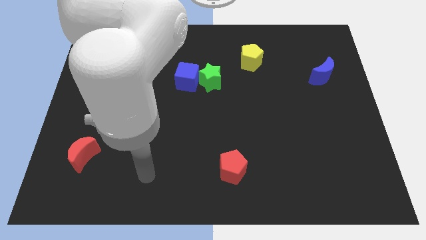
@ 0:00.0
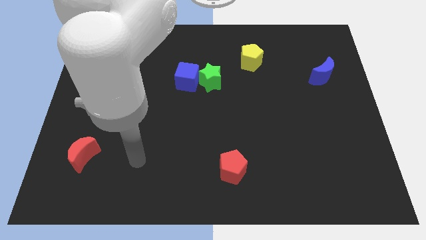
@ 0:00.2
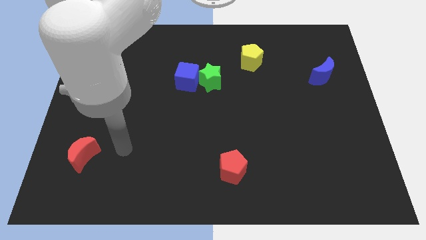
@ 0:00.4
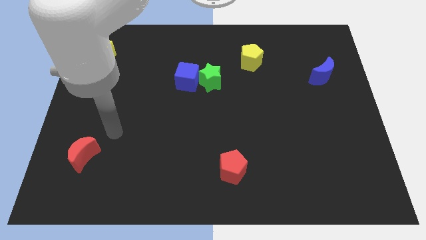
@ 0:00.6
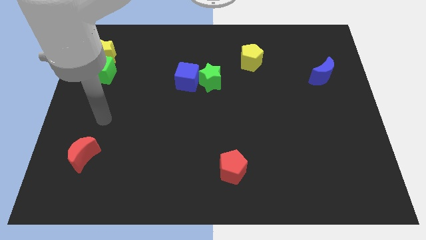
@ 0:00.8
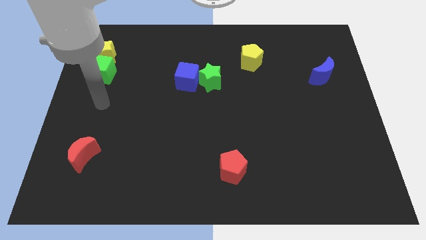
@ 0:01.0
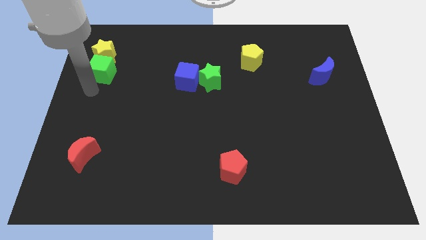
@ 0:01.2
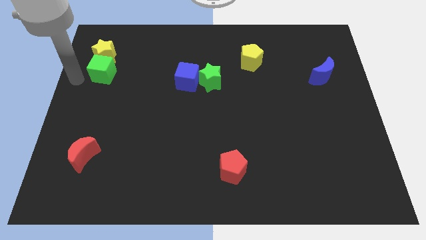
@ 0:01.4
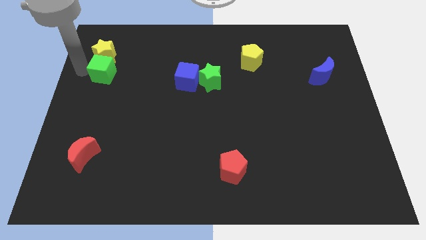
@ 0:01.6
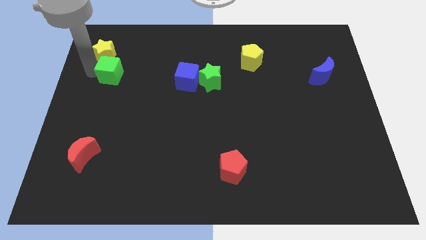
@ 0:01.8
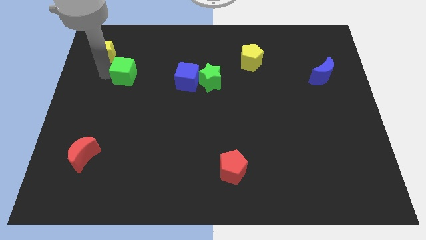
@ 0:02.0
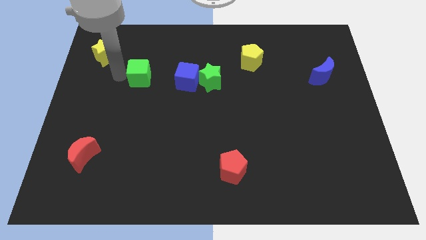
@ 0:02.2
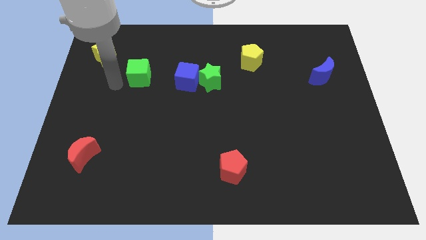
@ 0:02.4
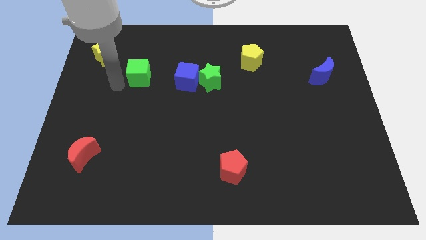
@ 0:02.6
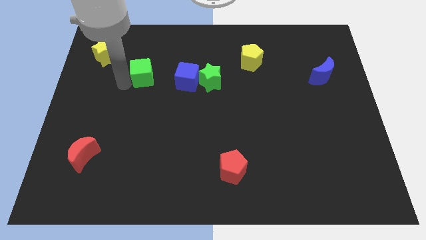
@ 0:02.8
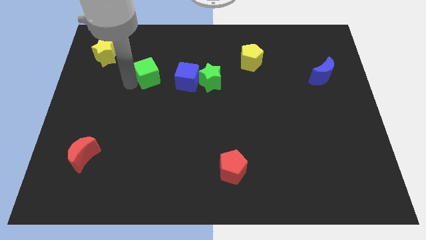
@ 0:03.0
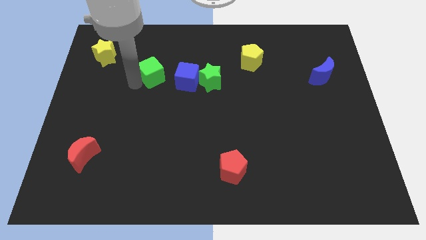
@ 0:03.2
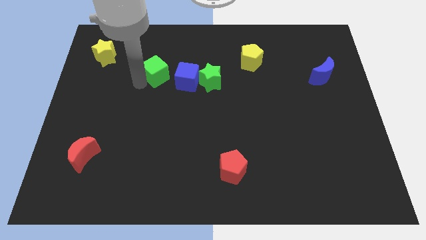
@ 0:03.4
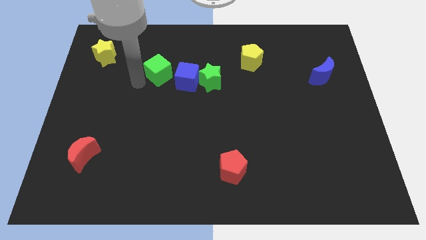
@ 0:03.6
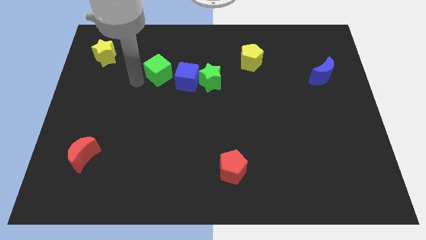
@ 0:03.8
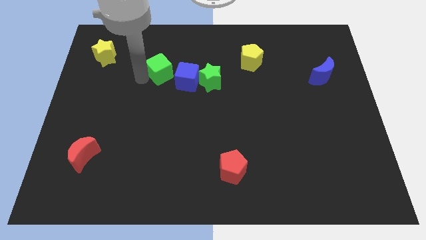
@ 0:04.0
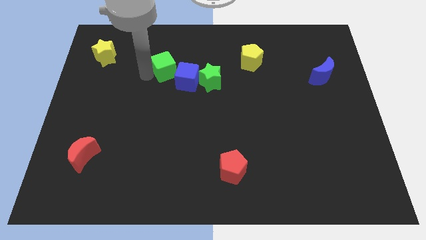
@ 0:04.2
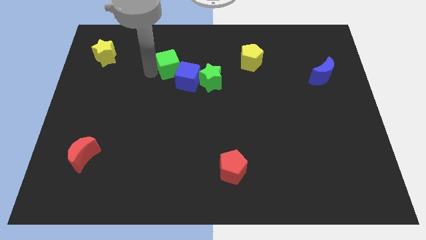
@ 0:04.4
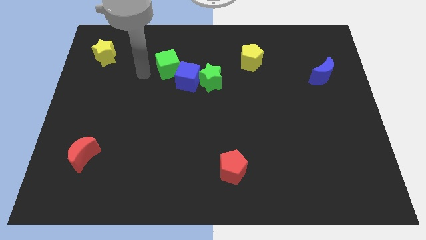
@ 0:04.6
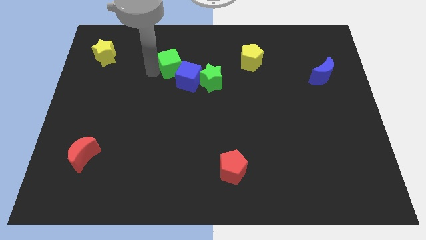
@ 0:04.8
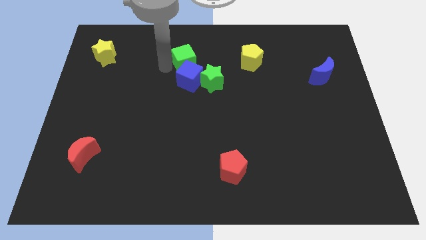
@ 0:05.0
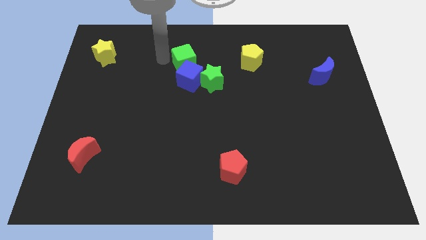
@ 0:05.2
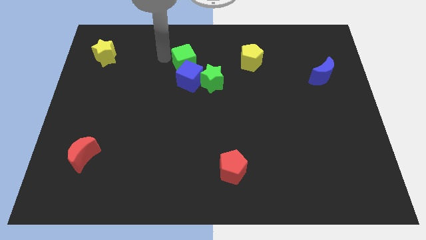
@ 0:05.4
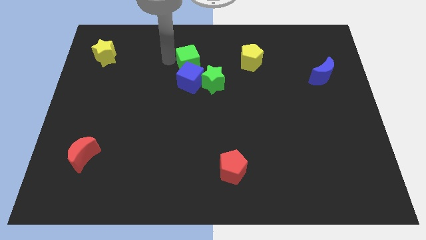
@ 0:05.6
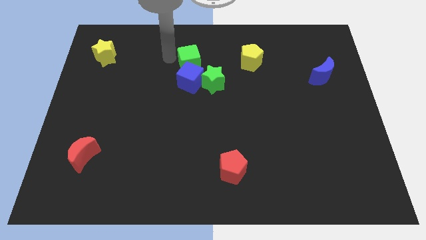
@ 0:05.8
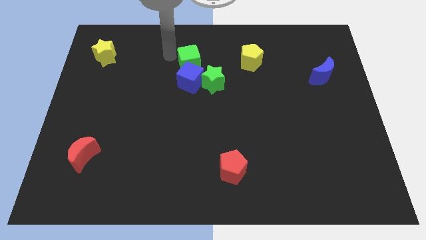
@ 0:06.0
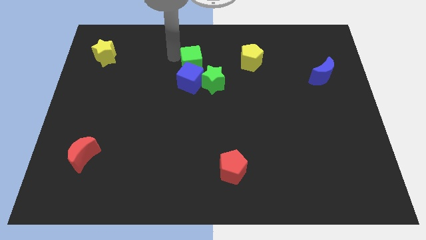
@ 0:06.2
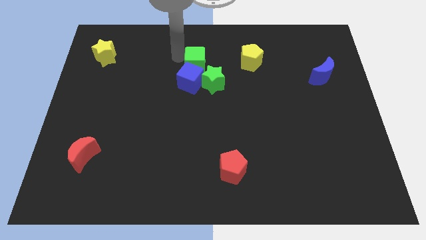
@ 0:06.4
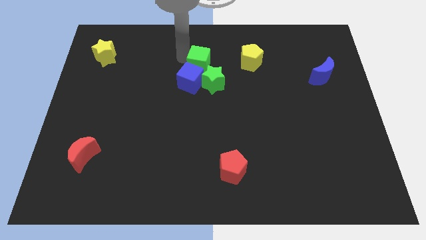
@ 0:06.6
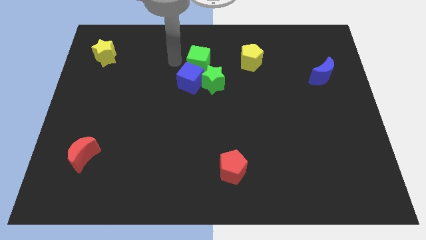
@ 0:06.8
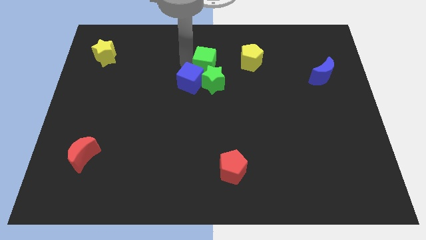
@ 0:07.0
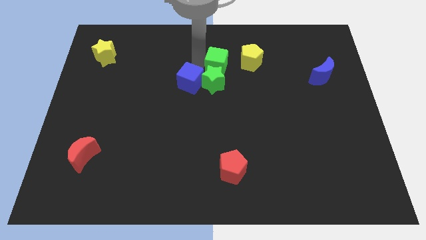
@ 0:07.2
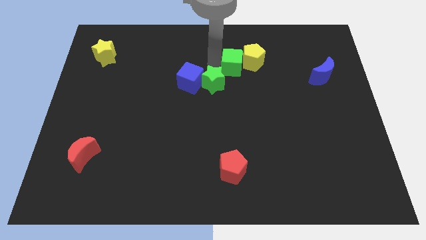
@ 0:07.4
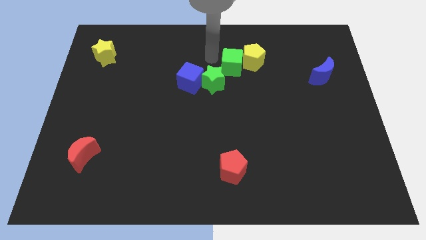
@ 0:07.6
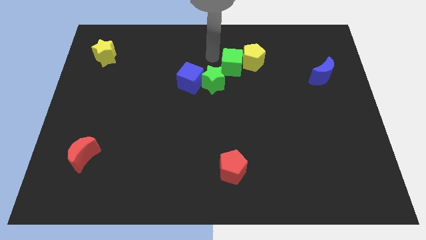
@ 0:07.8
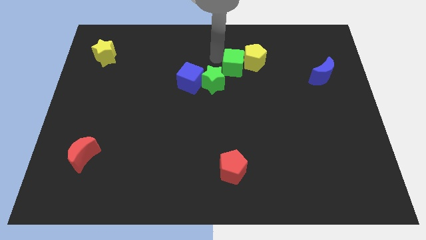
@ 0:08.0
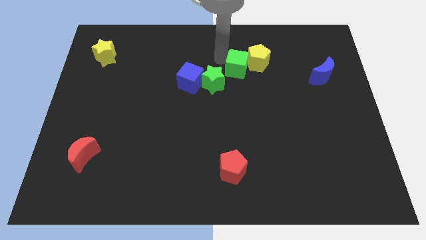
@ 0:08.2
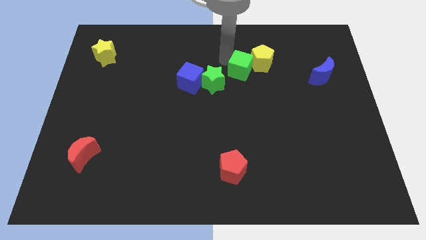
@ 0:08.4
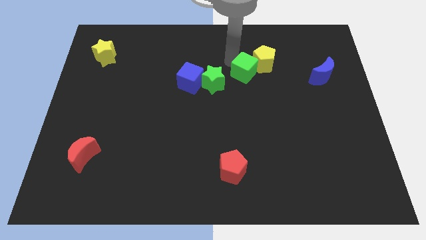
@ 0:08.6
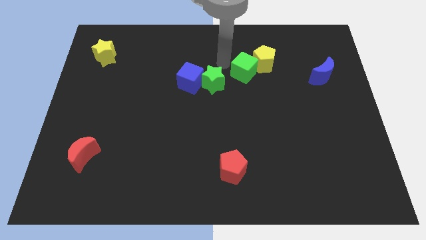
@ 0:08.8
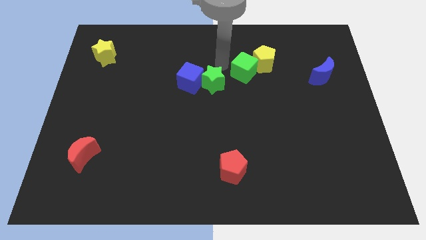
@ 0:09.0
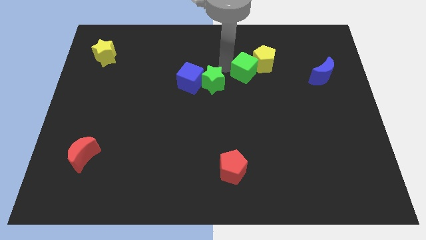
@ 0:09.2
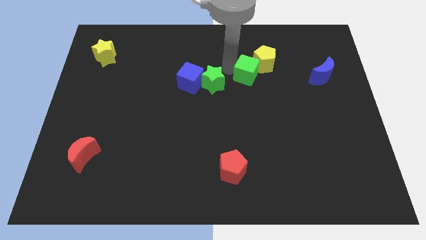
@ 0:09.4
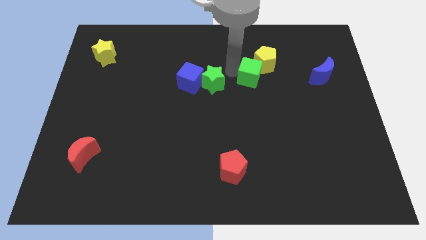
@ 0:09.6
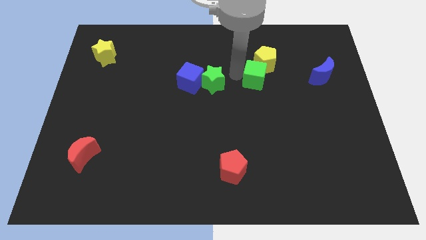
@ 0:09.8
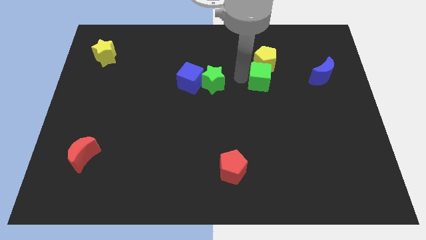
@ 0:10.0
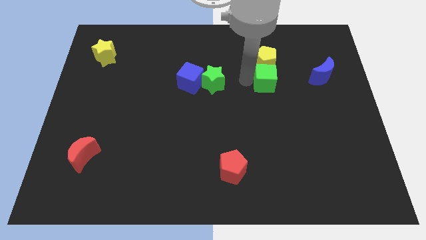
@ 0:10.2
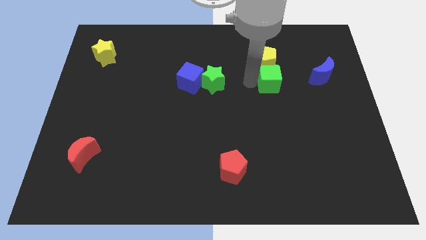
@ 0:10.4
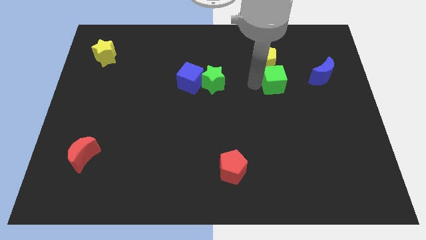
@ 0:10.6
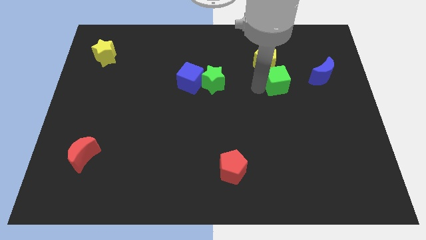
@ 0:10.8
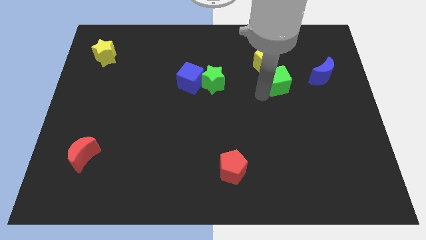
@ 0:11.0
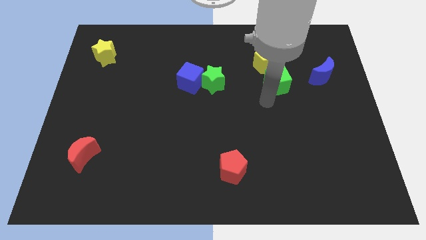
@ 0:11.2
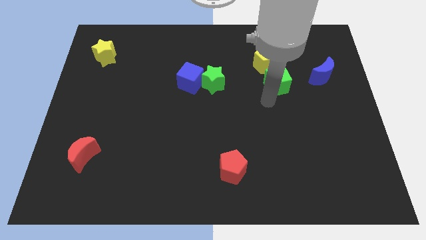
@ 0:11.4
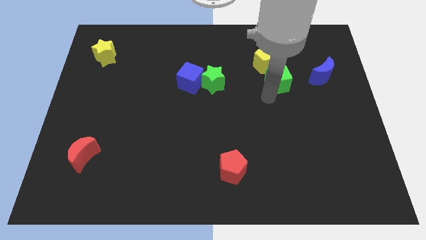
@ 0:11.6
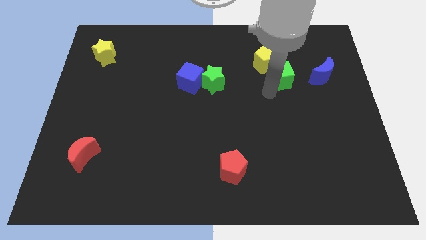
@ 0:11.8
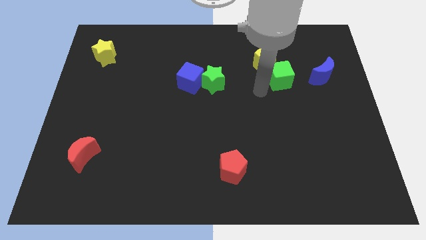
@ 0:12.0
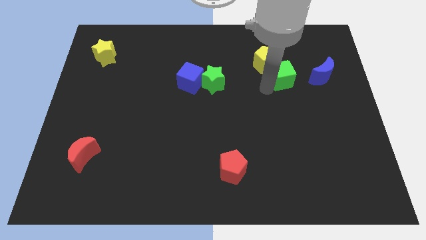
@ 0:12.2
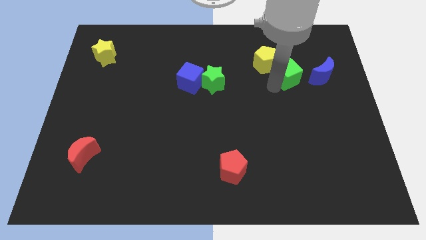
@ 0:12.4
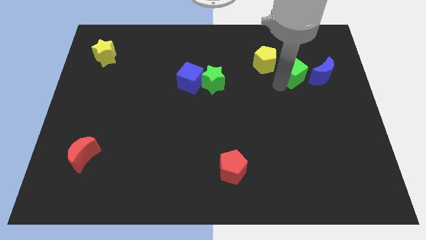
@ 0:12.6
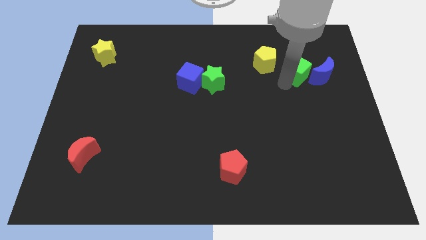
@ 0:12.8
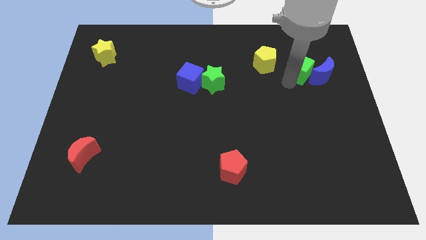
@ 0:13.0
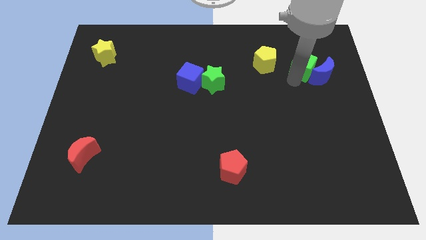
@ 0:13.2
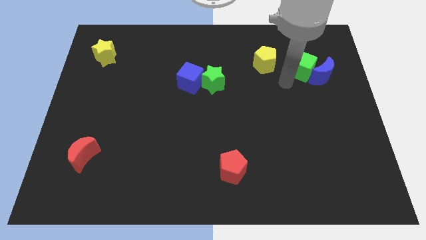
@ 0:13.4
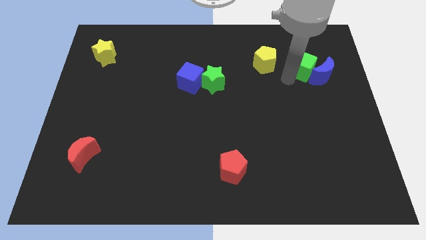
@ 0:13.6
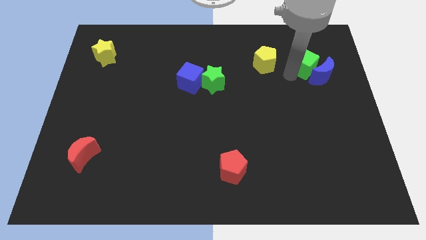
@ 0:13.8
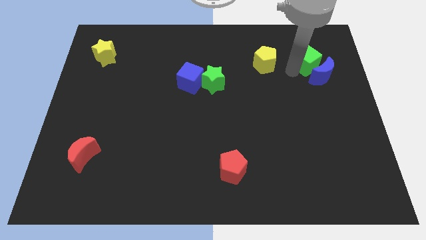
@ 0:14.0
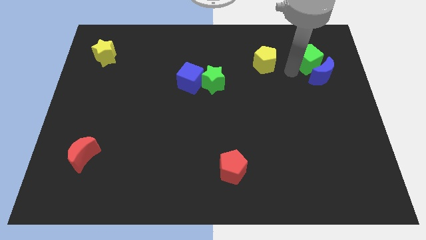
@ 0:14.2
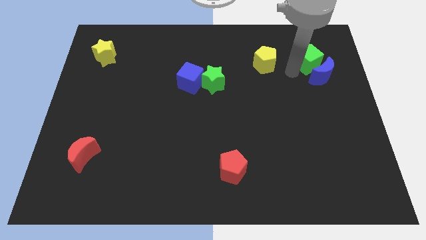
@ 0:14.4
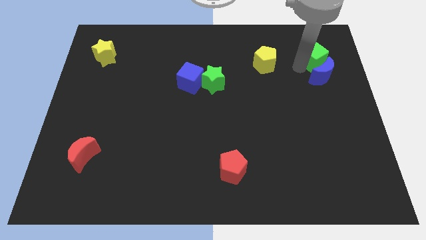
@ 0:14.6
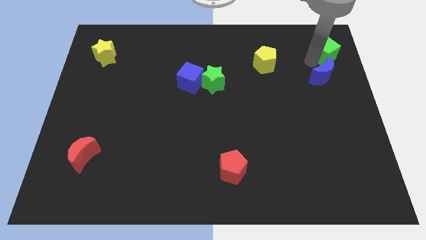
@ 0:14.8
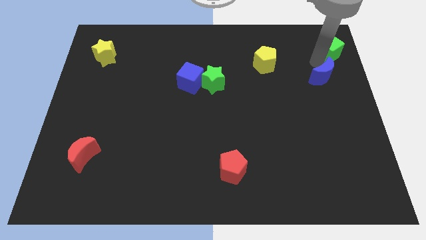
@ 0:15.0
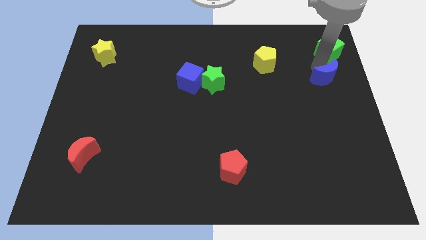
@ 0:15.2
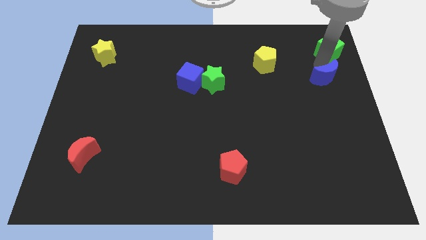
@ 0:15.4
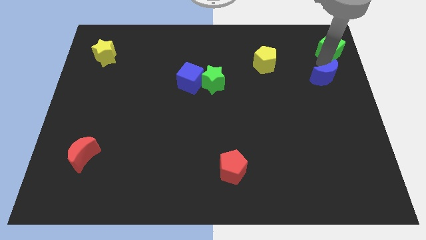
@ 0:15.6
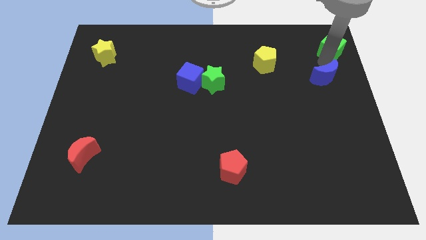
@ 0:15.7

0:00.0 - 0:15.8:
put the green cube to the top right of the board

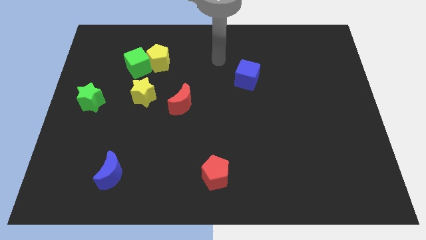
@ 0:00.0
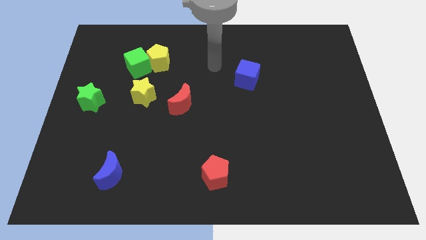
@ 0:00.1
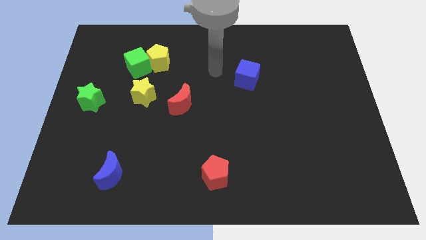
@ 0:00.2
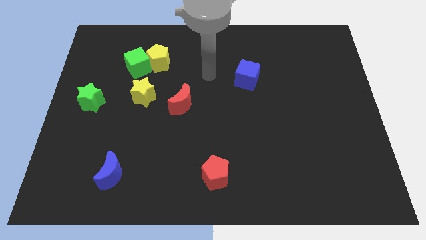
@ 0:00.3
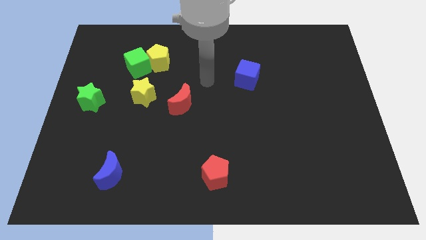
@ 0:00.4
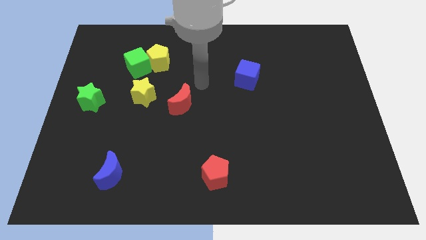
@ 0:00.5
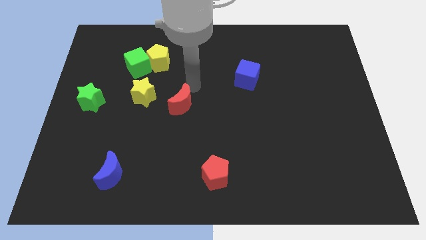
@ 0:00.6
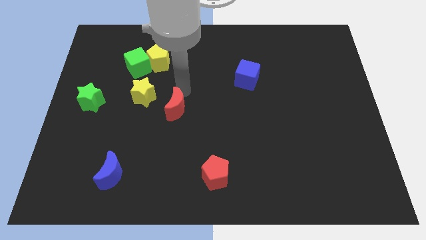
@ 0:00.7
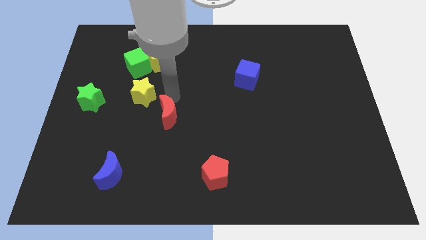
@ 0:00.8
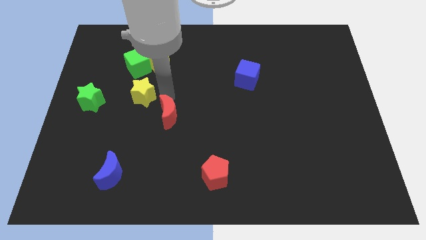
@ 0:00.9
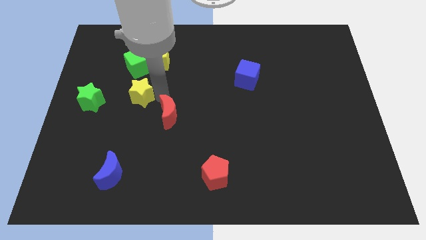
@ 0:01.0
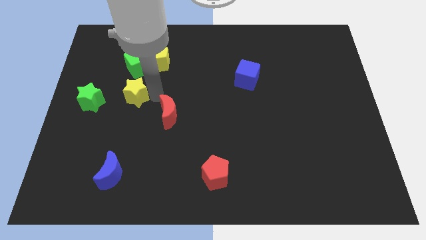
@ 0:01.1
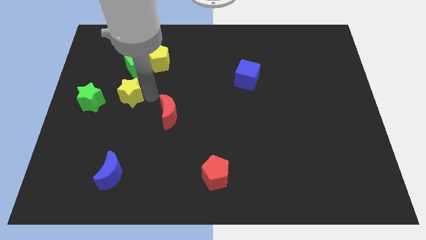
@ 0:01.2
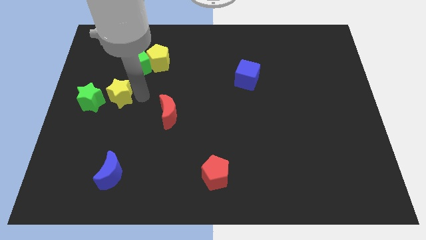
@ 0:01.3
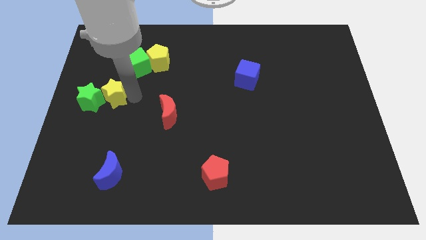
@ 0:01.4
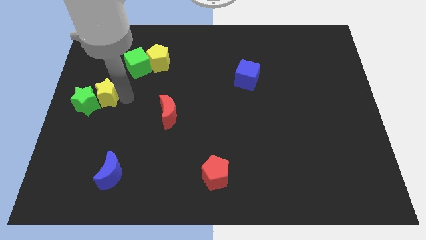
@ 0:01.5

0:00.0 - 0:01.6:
move the yellow star to the left side of the board
